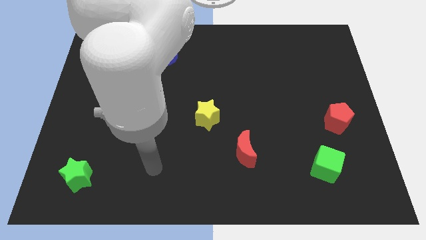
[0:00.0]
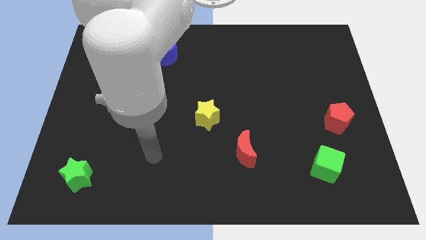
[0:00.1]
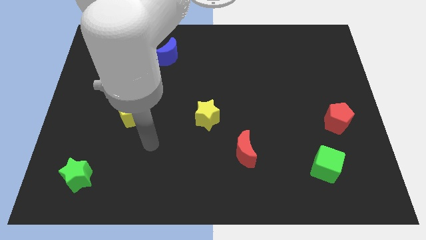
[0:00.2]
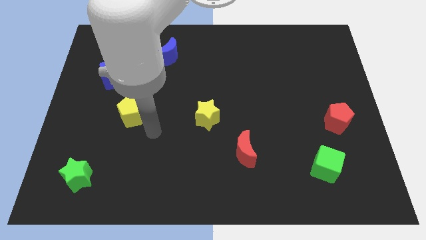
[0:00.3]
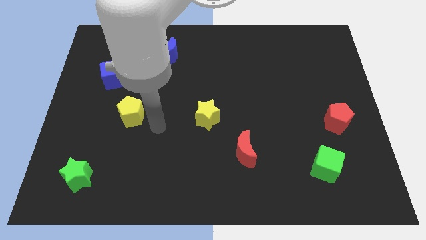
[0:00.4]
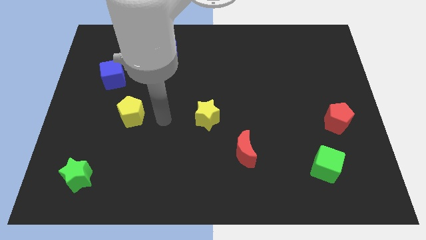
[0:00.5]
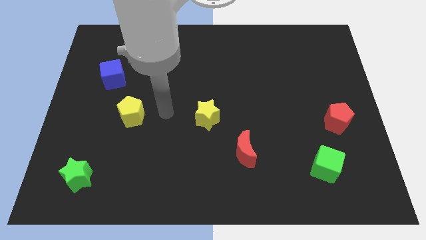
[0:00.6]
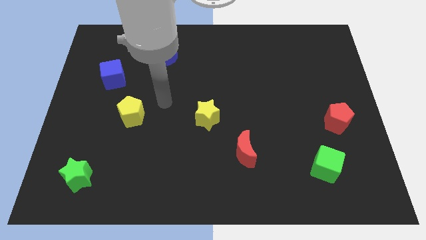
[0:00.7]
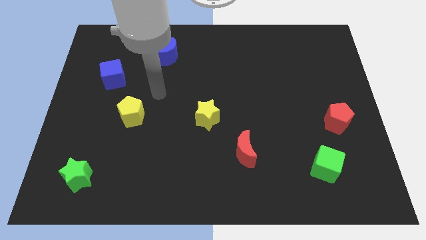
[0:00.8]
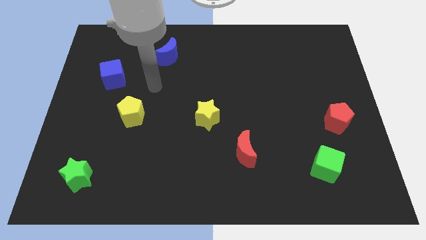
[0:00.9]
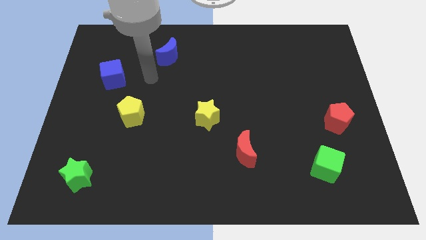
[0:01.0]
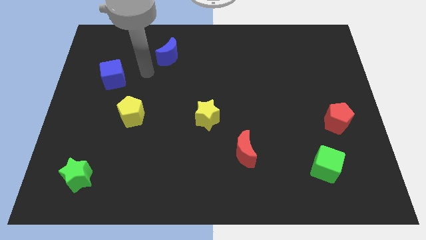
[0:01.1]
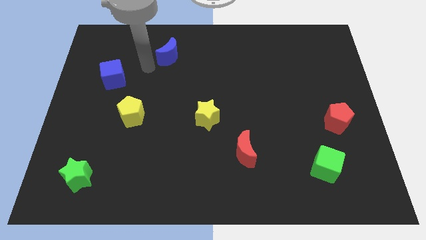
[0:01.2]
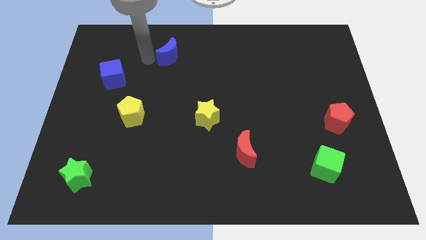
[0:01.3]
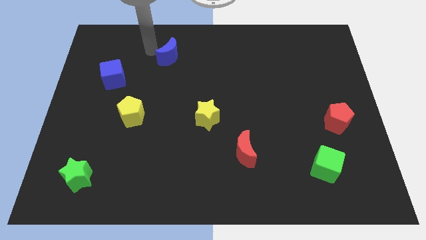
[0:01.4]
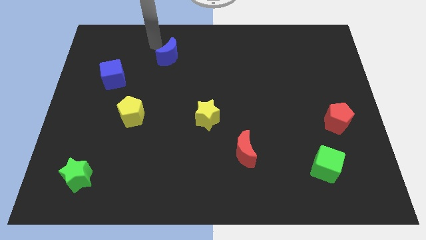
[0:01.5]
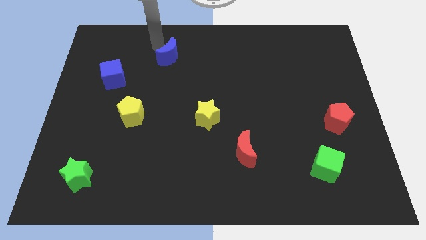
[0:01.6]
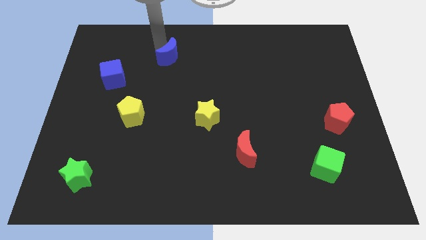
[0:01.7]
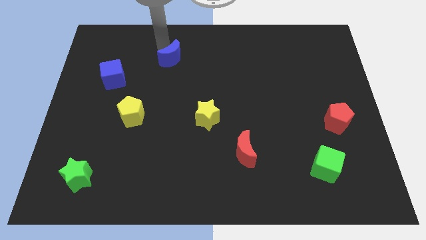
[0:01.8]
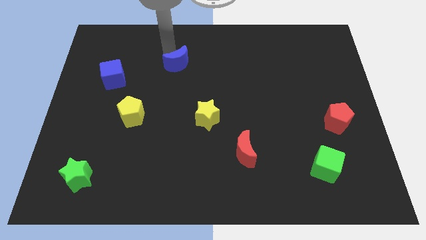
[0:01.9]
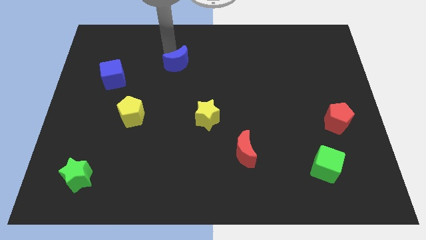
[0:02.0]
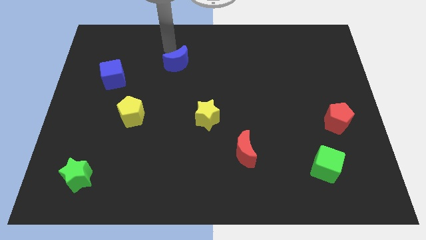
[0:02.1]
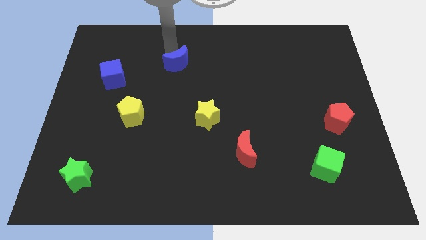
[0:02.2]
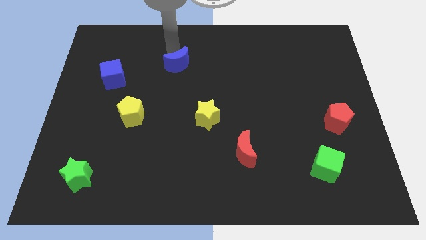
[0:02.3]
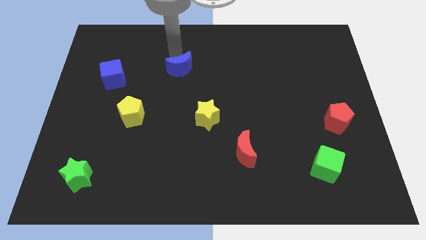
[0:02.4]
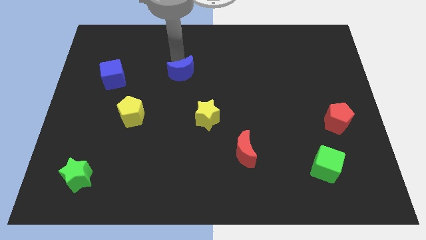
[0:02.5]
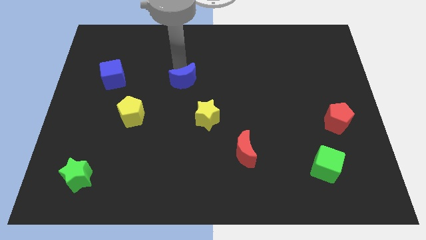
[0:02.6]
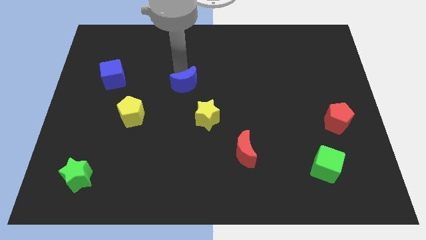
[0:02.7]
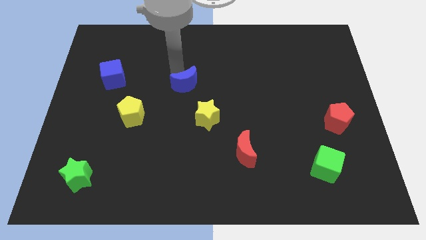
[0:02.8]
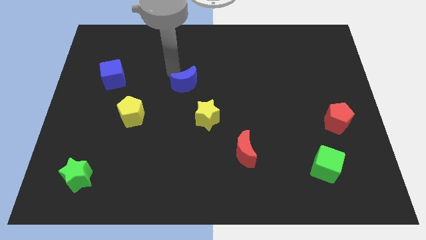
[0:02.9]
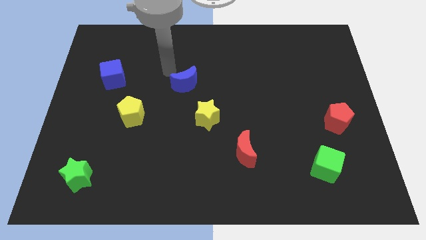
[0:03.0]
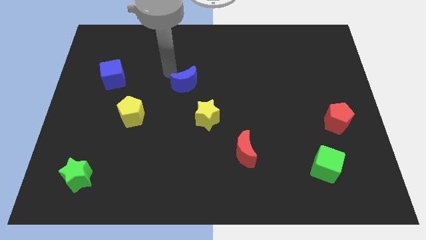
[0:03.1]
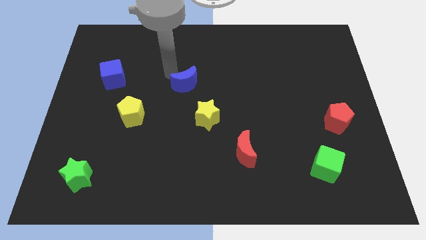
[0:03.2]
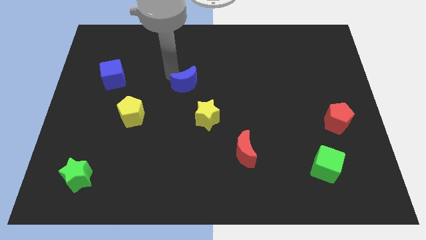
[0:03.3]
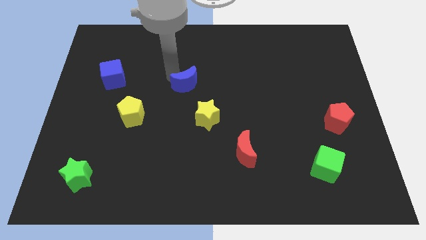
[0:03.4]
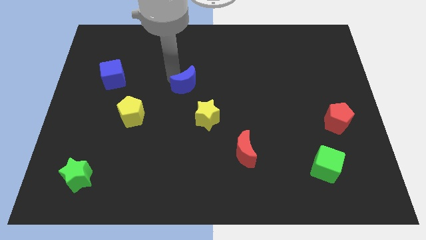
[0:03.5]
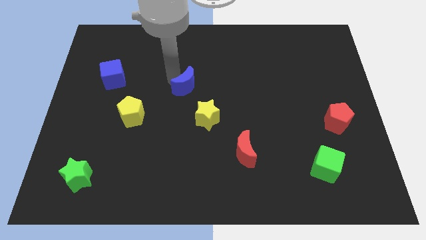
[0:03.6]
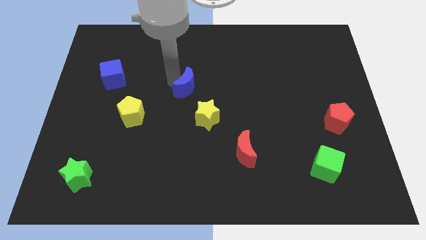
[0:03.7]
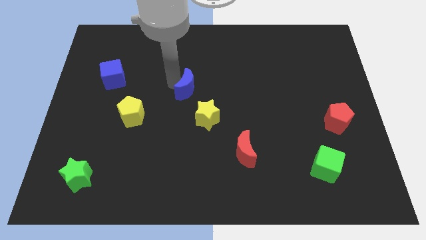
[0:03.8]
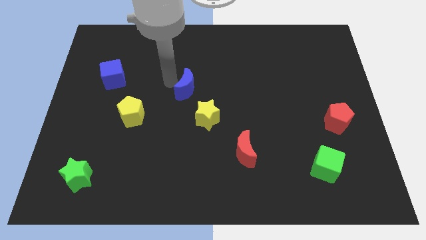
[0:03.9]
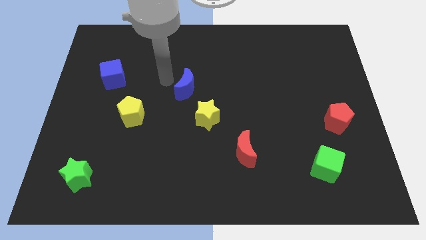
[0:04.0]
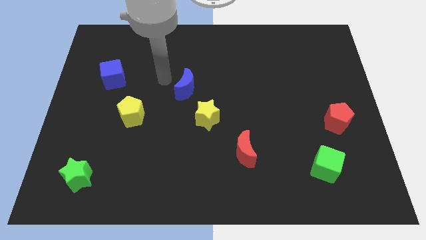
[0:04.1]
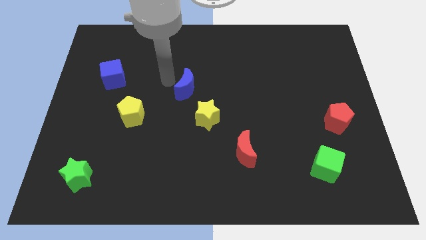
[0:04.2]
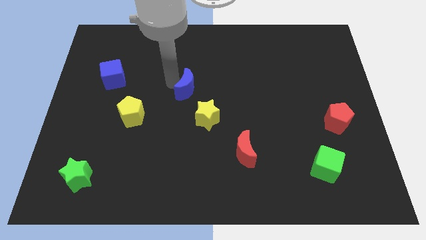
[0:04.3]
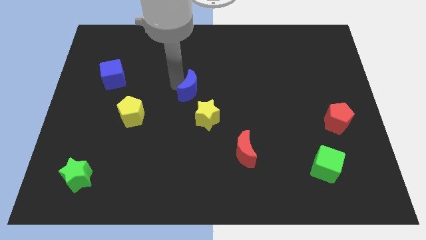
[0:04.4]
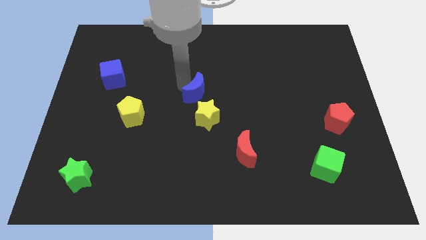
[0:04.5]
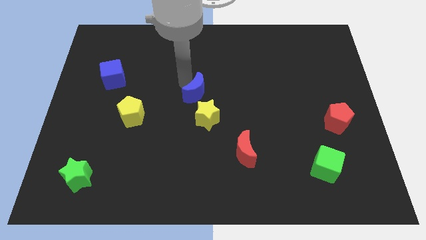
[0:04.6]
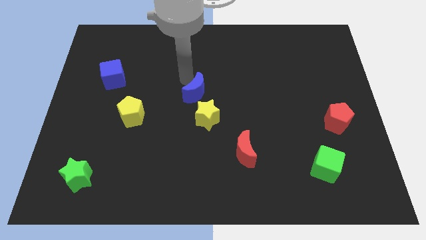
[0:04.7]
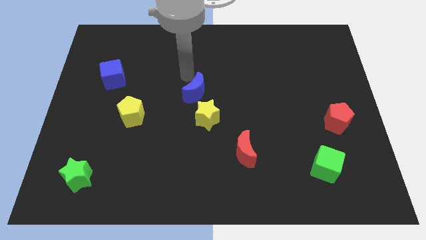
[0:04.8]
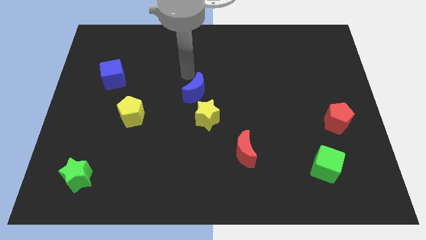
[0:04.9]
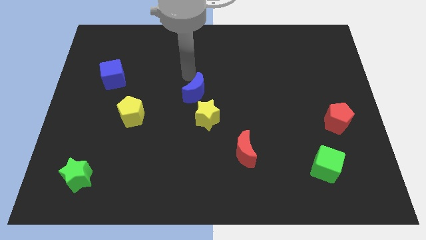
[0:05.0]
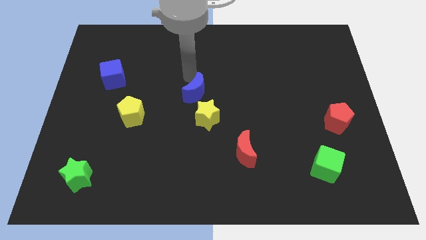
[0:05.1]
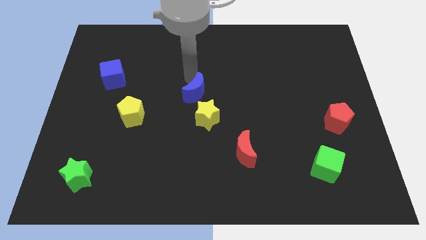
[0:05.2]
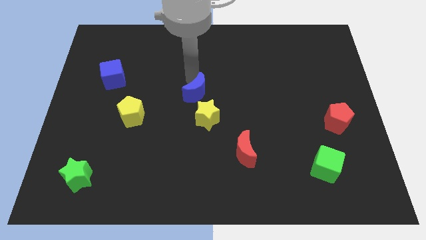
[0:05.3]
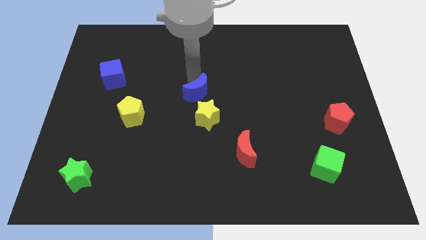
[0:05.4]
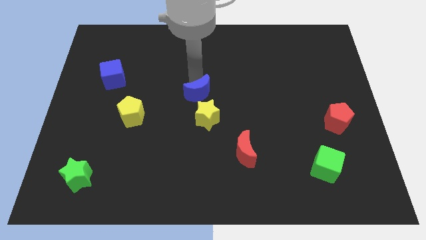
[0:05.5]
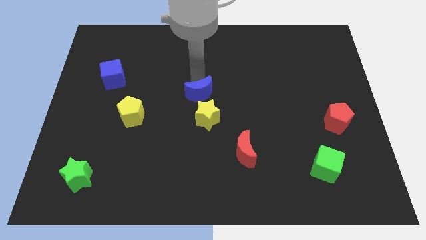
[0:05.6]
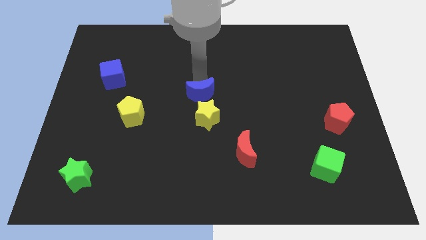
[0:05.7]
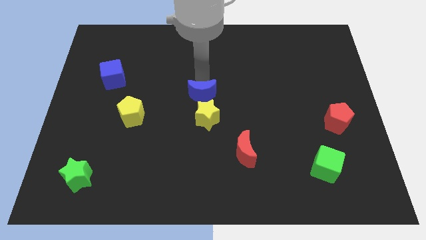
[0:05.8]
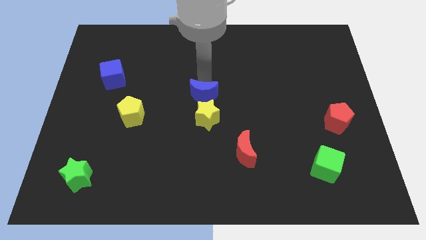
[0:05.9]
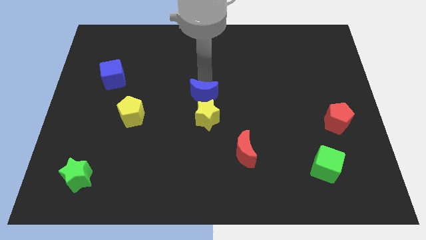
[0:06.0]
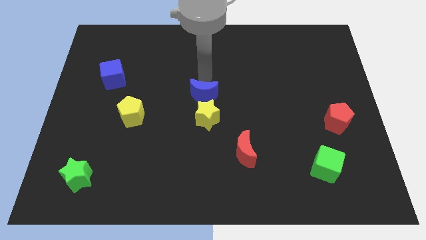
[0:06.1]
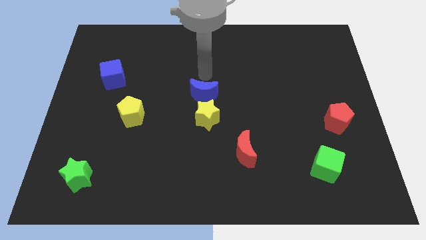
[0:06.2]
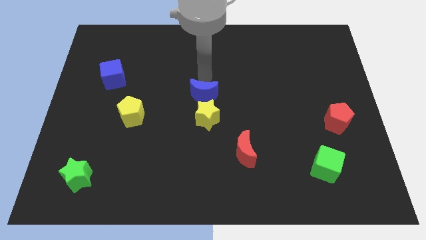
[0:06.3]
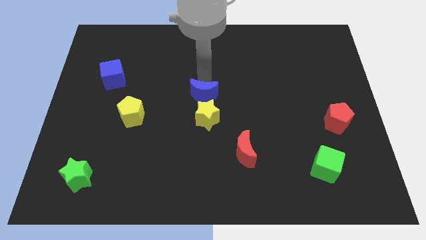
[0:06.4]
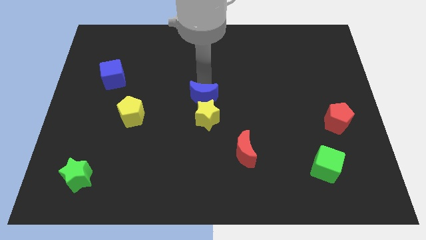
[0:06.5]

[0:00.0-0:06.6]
put the blue moon close to the yellow star
